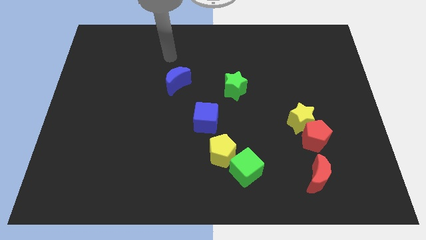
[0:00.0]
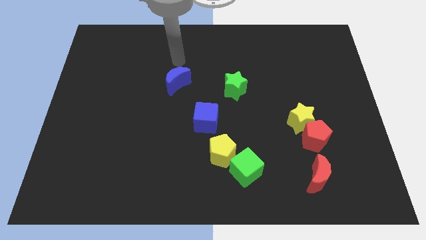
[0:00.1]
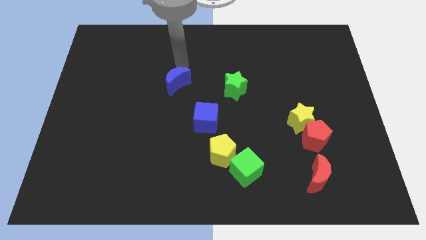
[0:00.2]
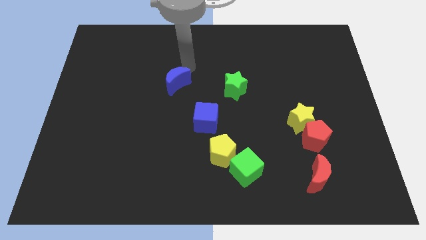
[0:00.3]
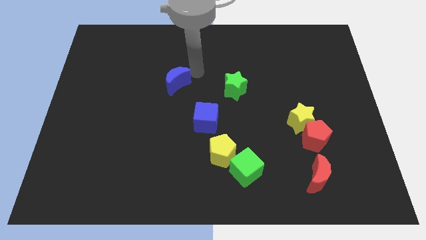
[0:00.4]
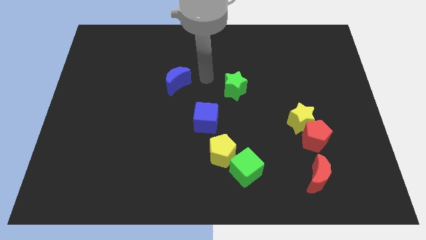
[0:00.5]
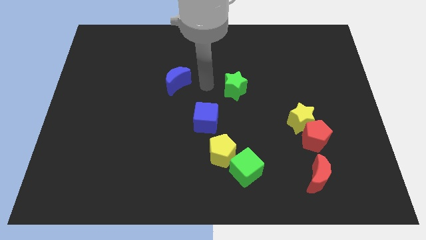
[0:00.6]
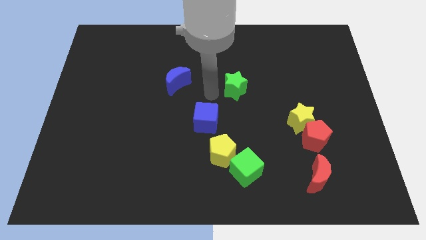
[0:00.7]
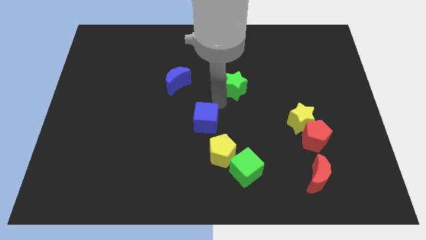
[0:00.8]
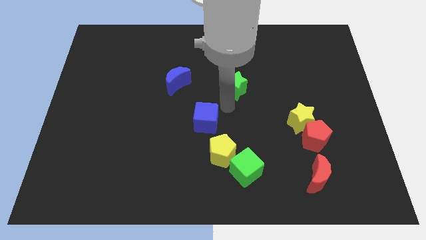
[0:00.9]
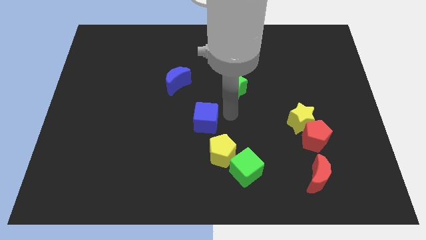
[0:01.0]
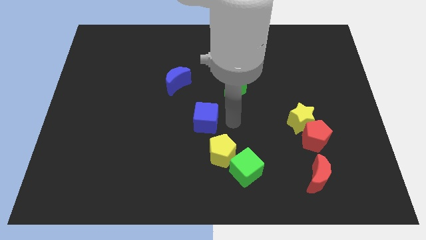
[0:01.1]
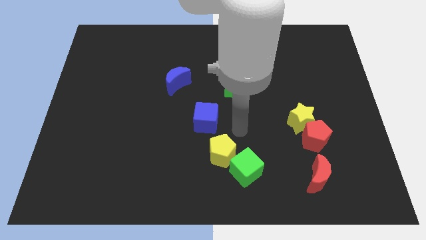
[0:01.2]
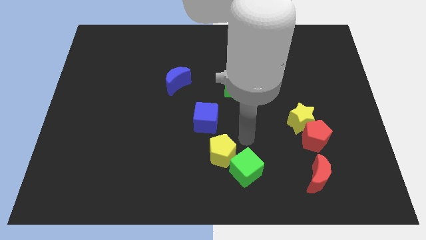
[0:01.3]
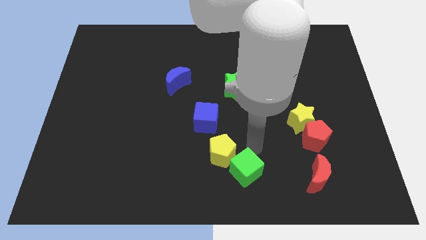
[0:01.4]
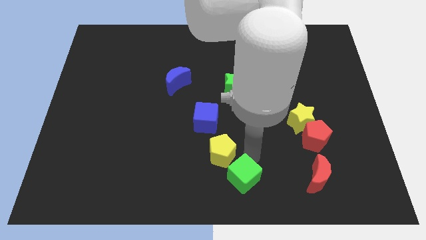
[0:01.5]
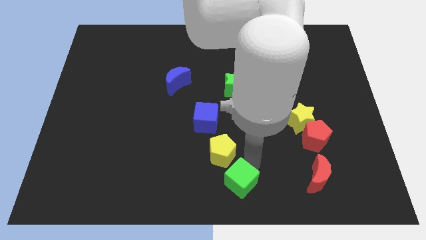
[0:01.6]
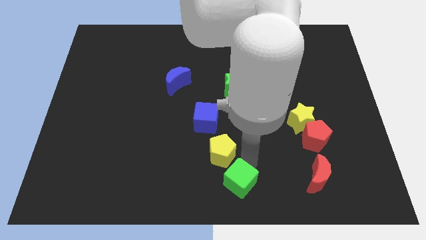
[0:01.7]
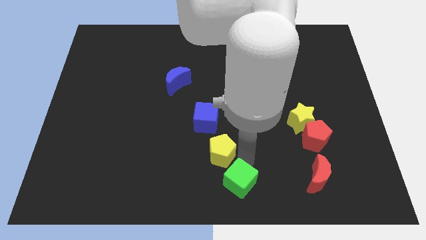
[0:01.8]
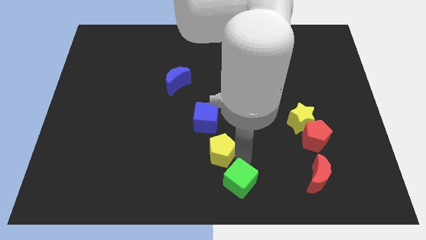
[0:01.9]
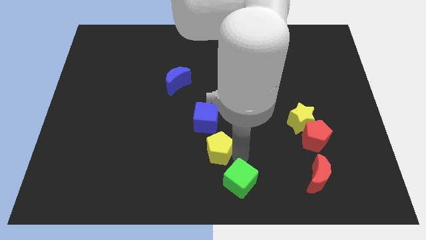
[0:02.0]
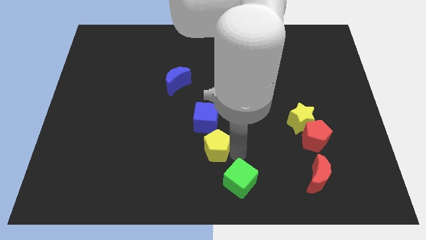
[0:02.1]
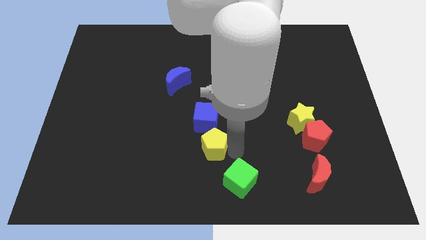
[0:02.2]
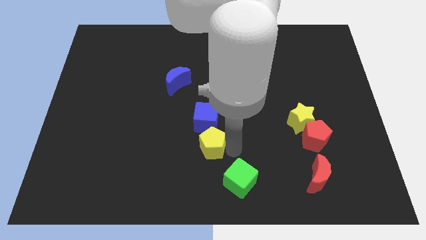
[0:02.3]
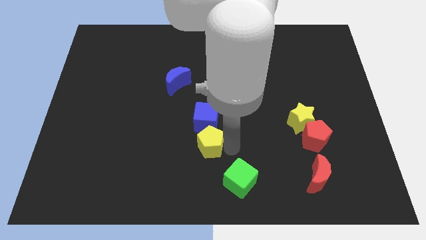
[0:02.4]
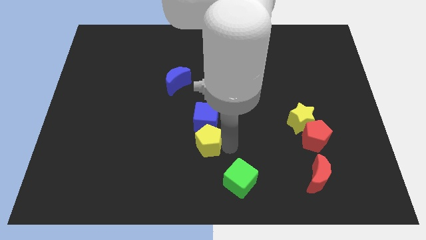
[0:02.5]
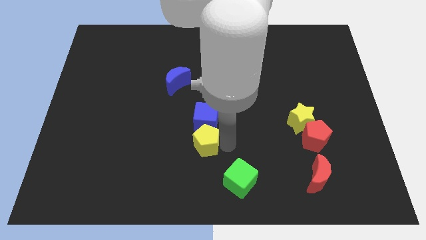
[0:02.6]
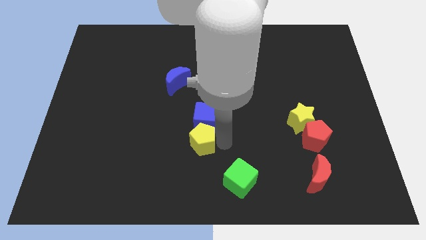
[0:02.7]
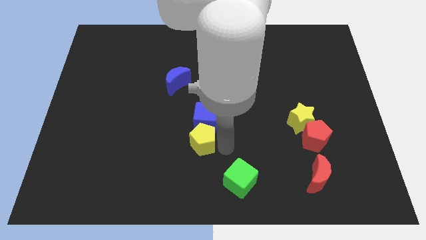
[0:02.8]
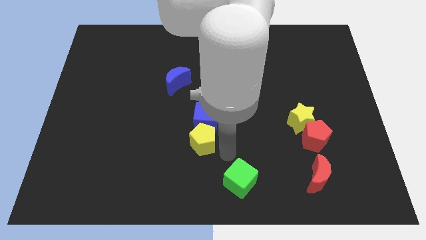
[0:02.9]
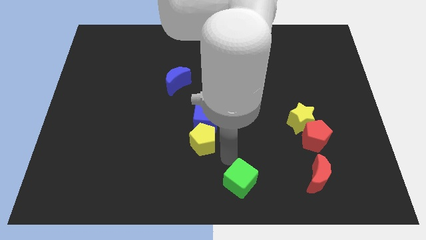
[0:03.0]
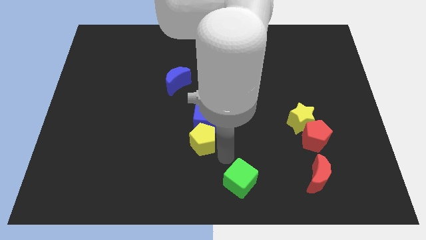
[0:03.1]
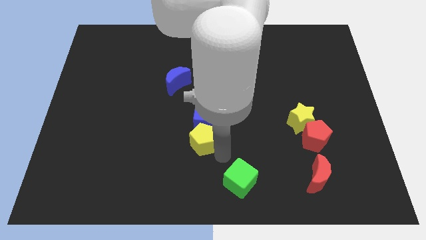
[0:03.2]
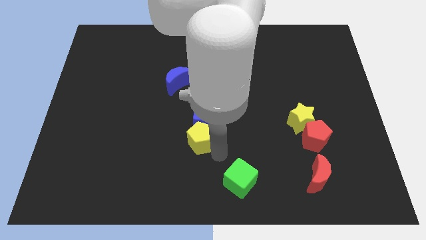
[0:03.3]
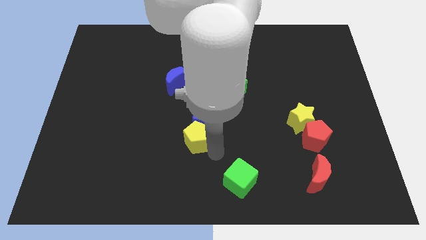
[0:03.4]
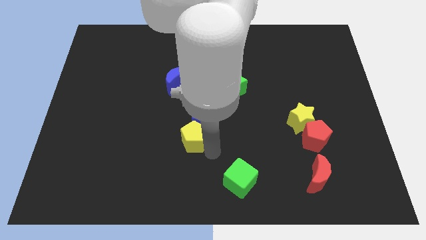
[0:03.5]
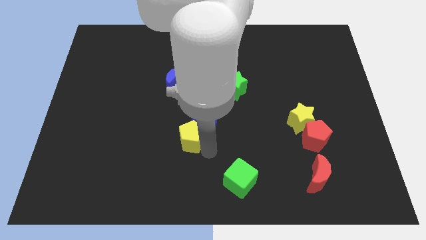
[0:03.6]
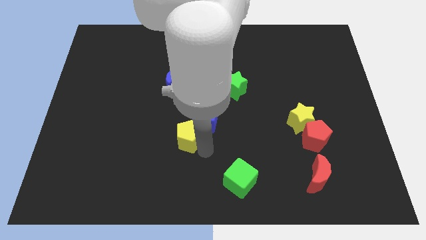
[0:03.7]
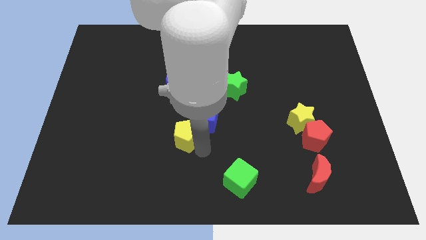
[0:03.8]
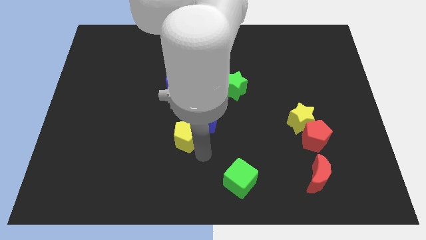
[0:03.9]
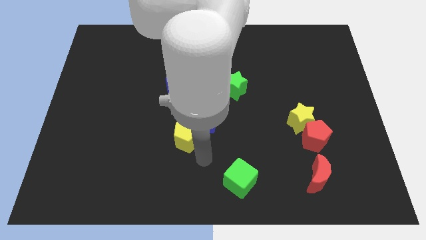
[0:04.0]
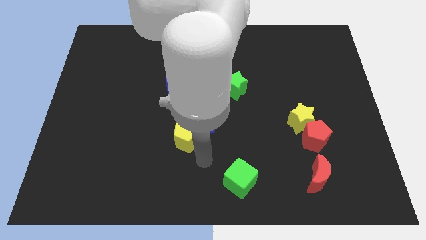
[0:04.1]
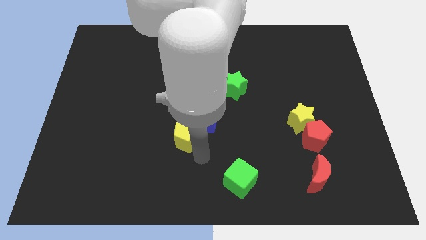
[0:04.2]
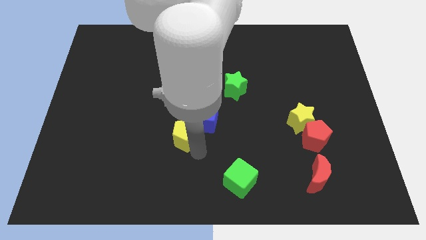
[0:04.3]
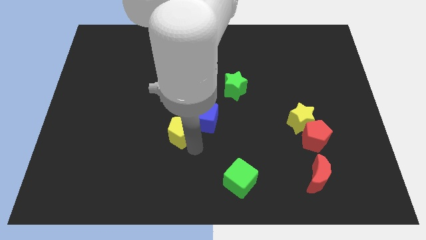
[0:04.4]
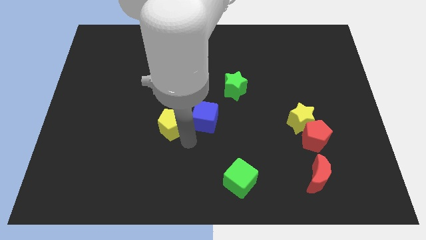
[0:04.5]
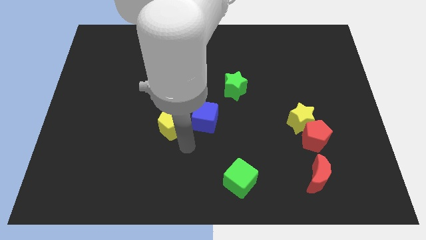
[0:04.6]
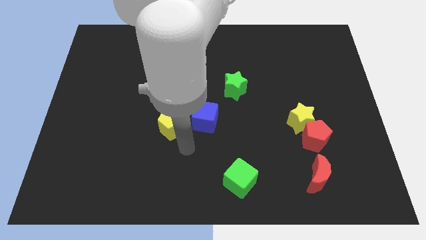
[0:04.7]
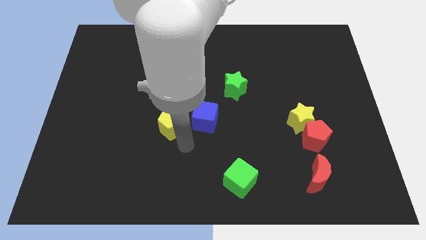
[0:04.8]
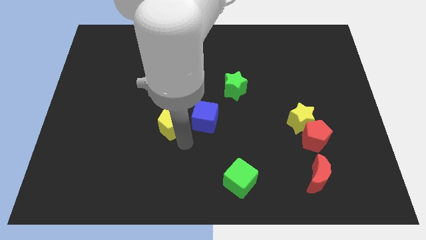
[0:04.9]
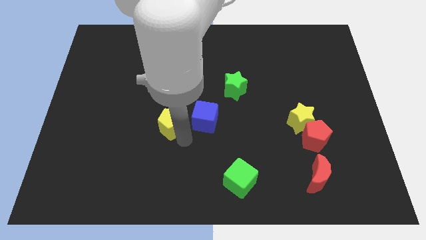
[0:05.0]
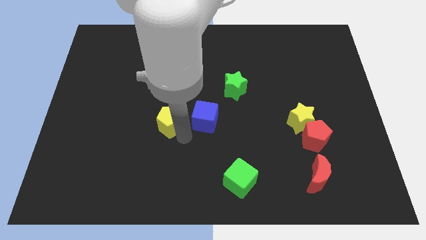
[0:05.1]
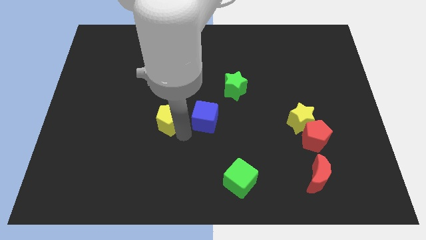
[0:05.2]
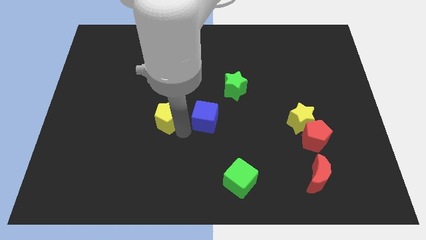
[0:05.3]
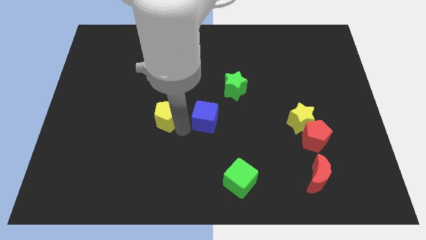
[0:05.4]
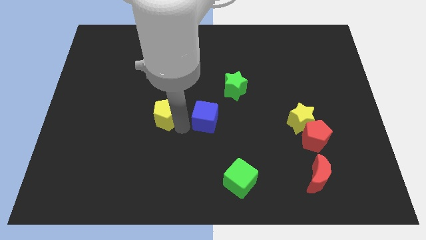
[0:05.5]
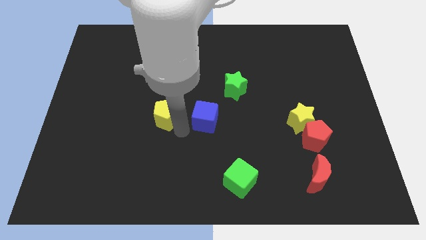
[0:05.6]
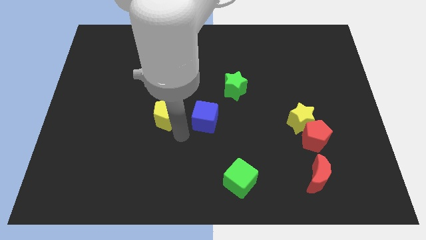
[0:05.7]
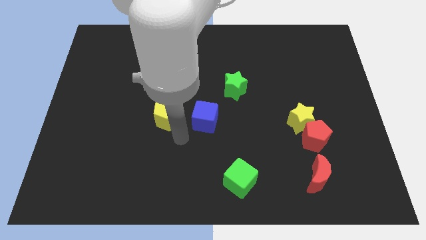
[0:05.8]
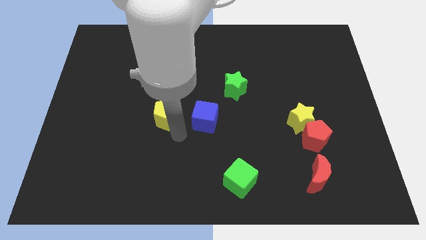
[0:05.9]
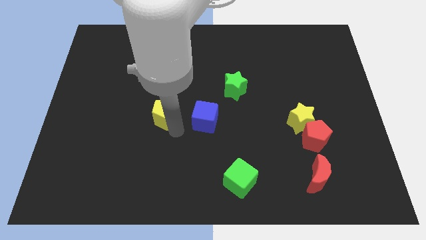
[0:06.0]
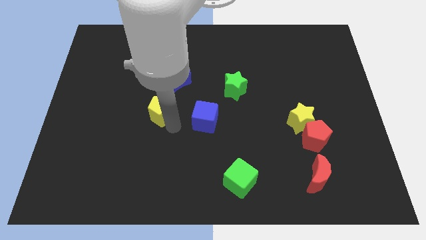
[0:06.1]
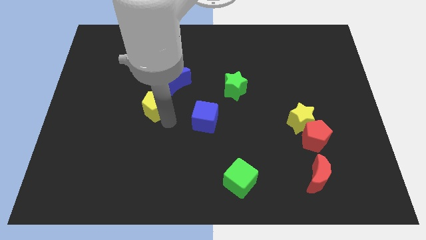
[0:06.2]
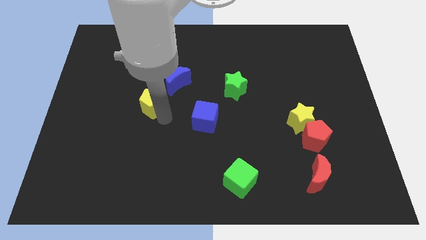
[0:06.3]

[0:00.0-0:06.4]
push the yellow pentagon diagonally upwards and left

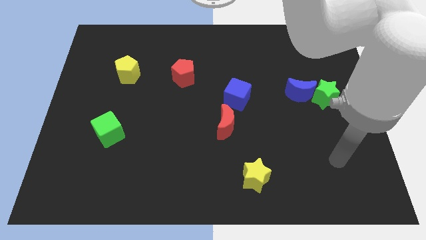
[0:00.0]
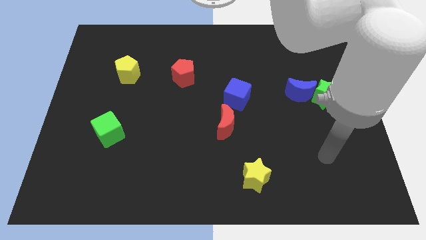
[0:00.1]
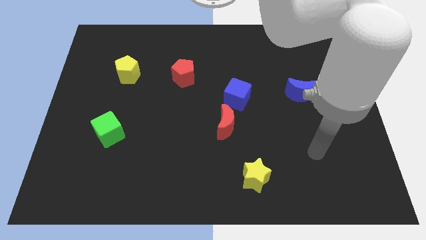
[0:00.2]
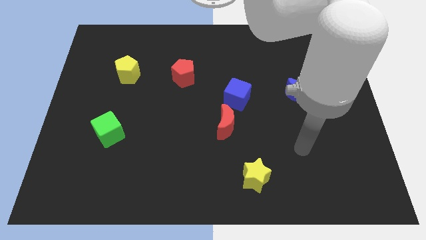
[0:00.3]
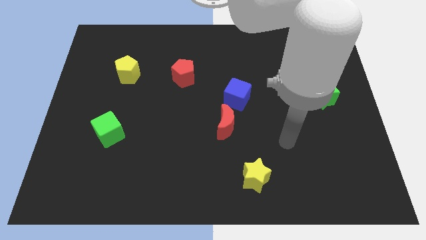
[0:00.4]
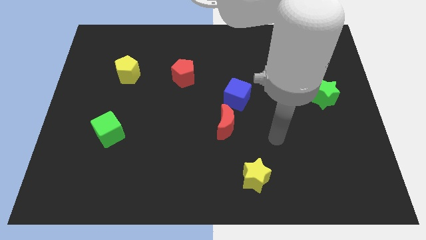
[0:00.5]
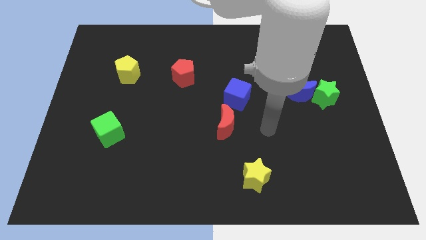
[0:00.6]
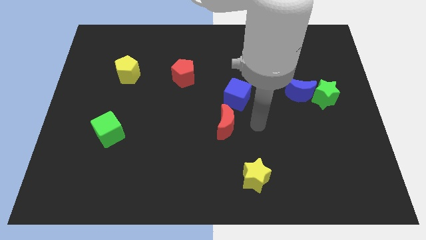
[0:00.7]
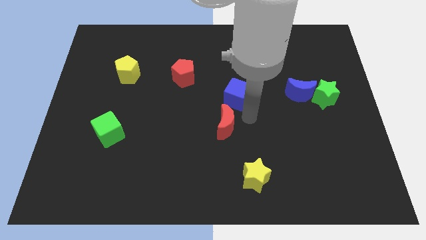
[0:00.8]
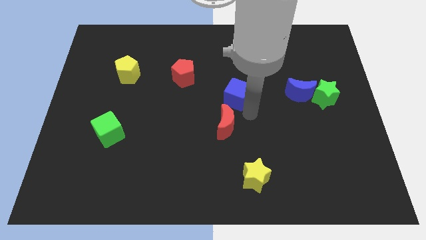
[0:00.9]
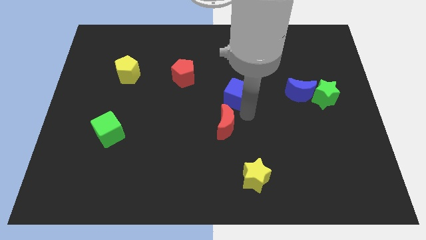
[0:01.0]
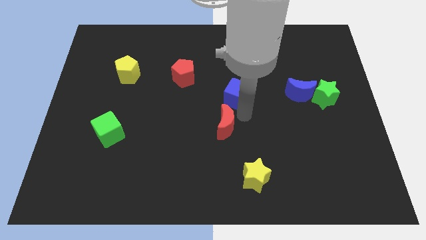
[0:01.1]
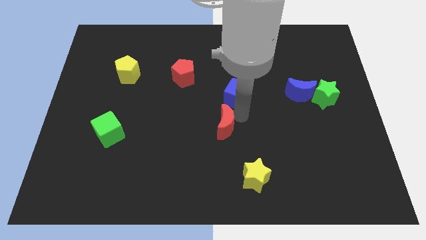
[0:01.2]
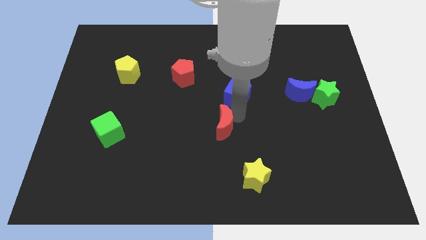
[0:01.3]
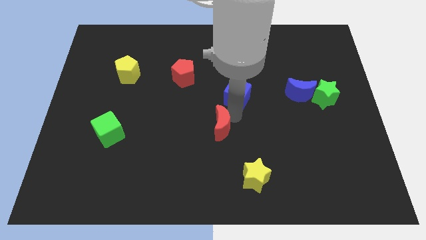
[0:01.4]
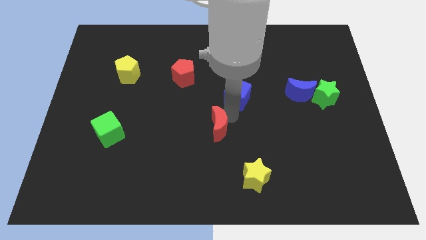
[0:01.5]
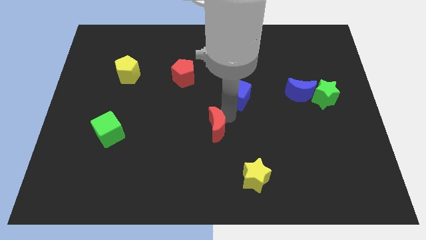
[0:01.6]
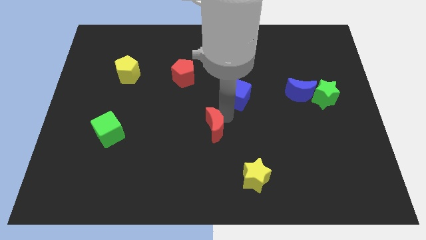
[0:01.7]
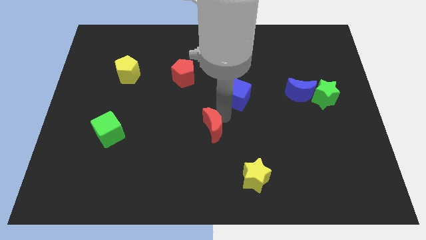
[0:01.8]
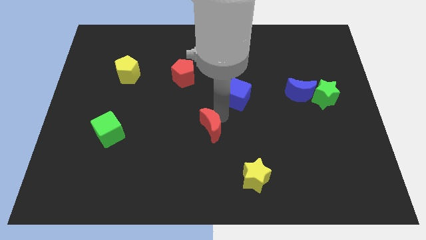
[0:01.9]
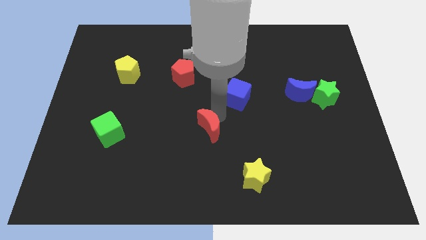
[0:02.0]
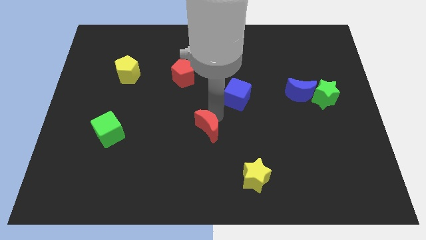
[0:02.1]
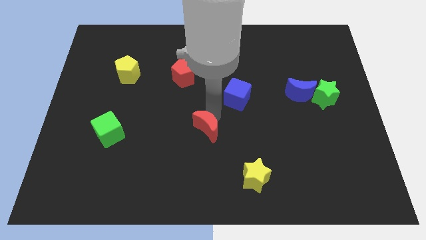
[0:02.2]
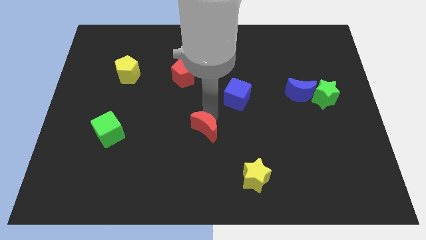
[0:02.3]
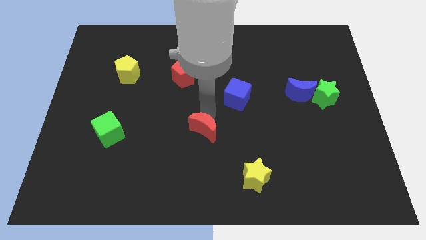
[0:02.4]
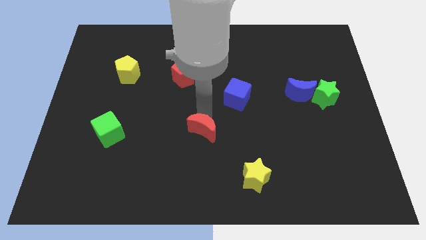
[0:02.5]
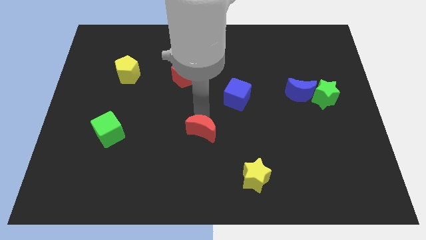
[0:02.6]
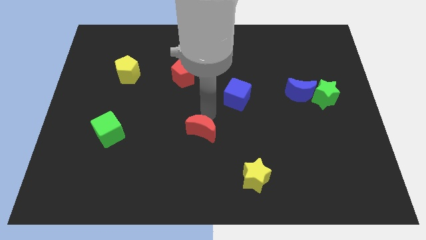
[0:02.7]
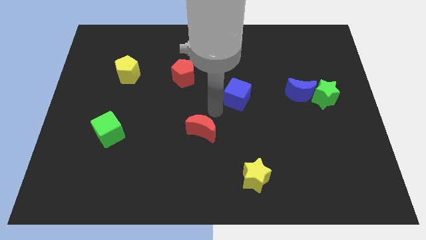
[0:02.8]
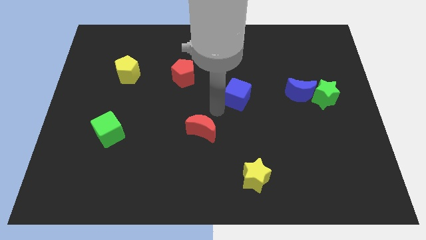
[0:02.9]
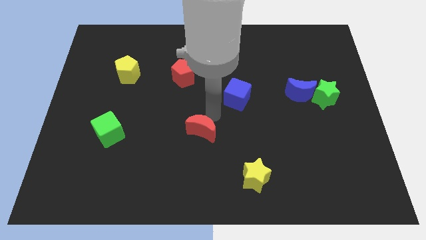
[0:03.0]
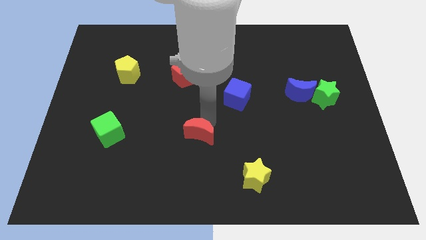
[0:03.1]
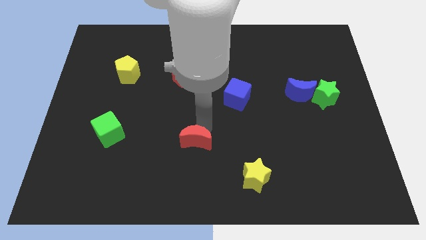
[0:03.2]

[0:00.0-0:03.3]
slightly move the red moon downwards and then to the left
